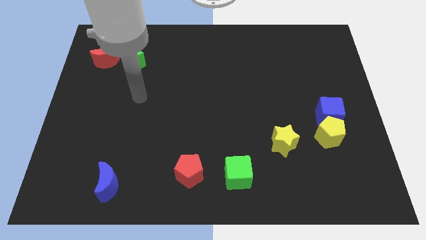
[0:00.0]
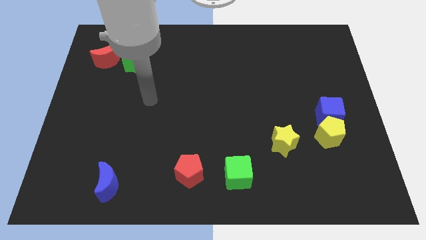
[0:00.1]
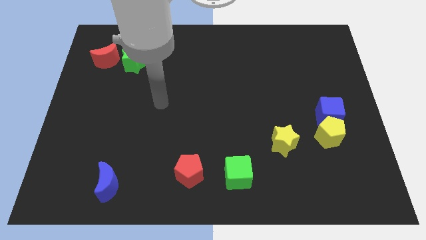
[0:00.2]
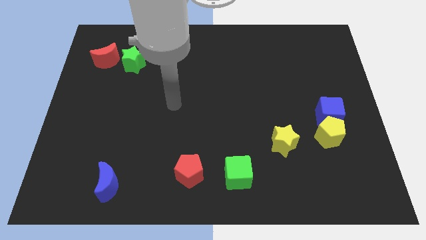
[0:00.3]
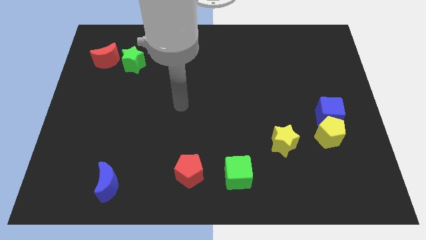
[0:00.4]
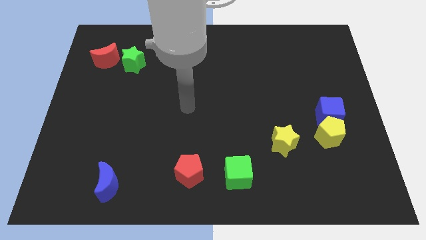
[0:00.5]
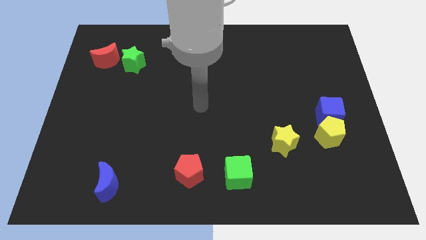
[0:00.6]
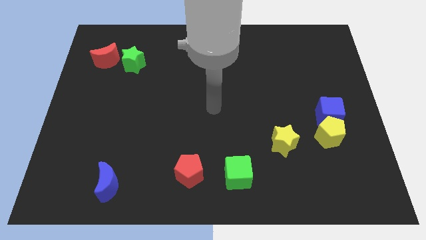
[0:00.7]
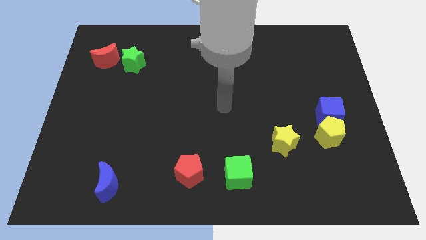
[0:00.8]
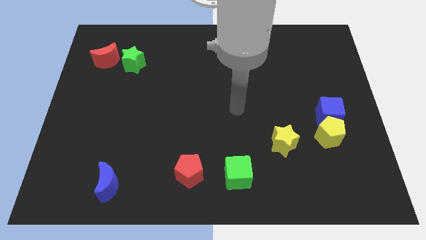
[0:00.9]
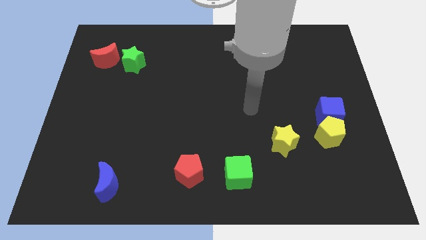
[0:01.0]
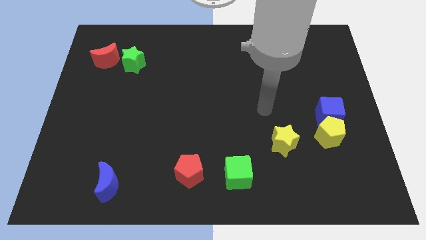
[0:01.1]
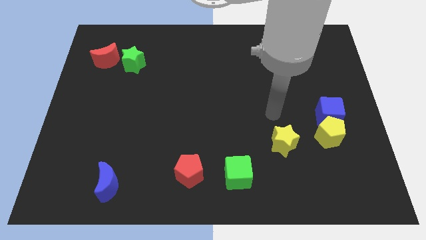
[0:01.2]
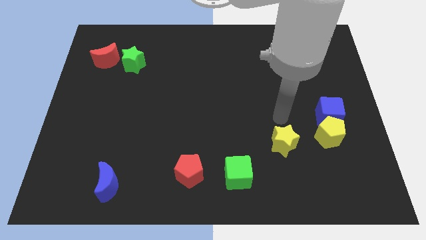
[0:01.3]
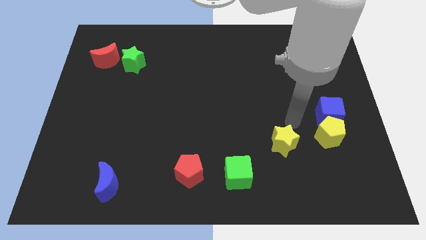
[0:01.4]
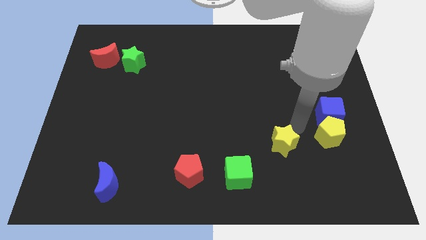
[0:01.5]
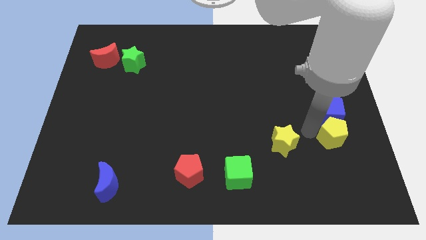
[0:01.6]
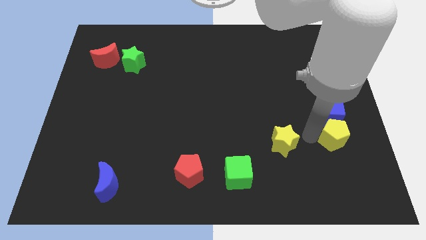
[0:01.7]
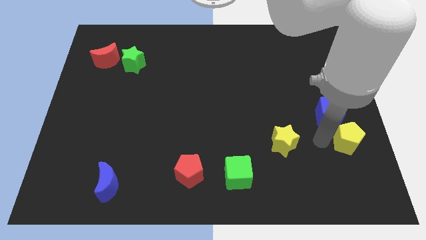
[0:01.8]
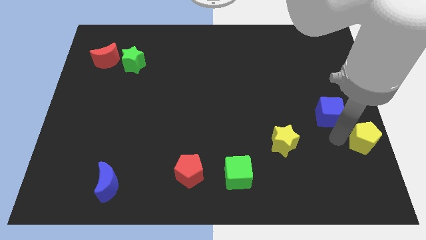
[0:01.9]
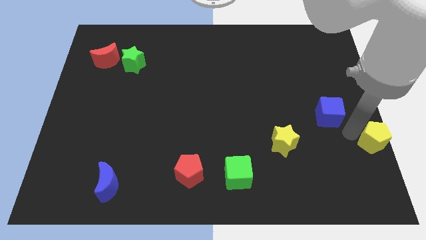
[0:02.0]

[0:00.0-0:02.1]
pull the blue cube apart from the yellow pentagon

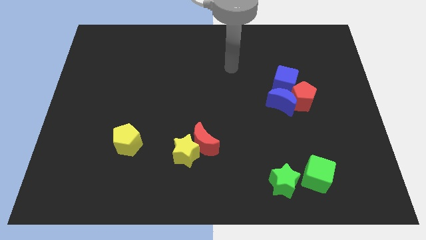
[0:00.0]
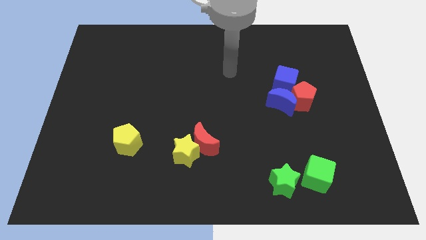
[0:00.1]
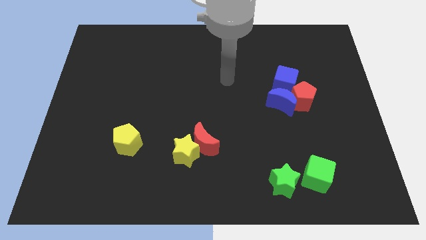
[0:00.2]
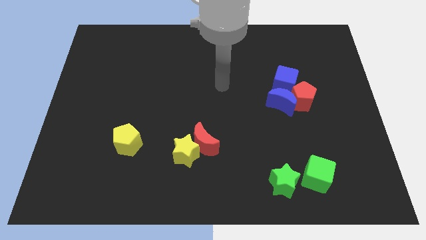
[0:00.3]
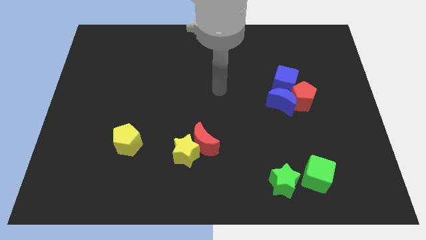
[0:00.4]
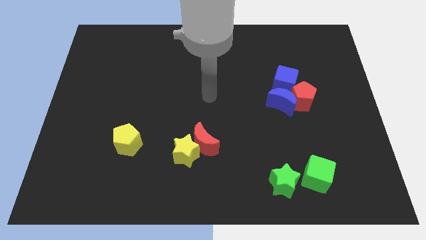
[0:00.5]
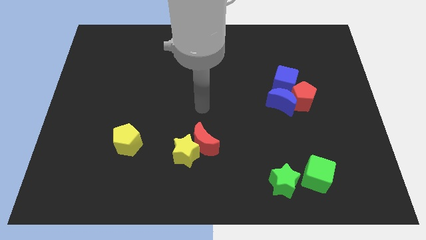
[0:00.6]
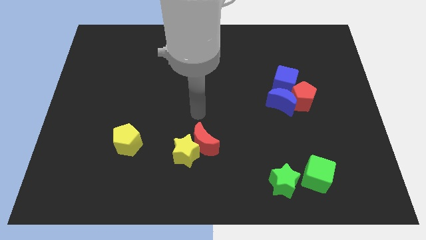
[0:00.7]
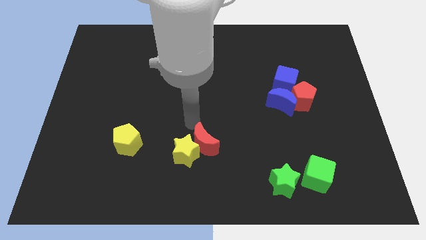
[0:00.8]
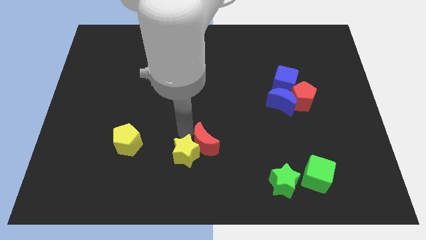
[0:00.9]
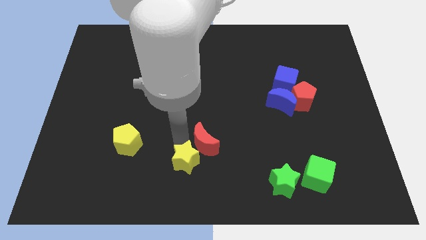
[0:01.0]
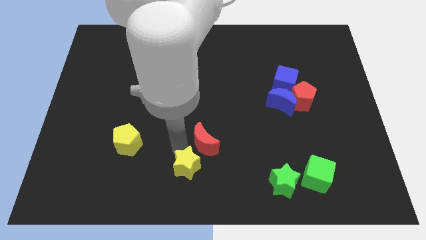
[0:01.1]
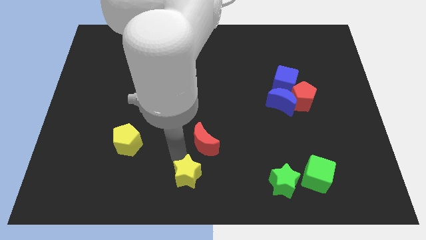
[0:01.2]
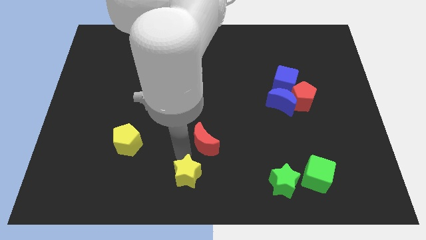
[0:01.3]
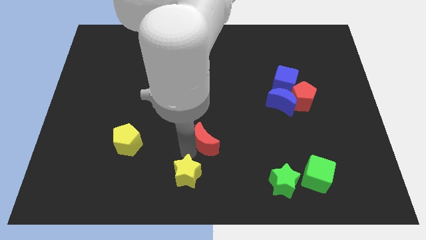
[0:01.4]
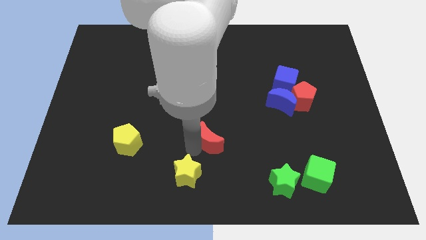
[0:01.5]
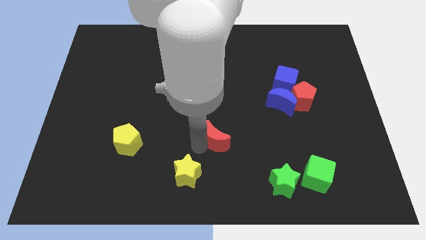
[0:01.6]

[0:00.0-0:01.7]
move the red moon away from the yellow star

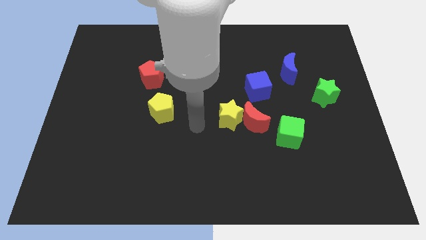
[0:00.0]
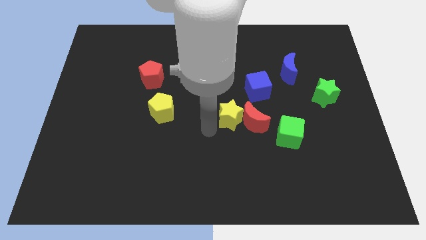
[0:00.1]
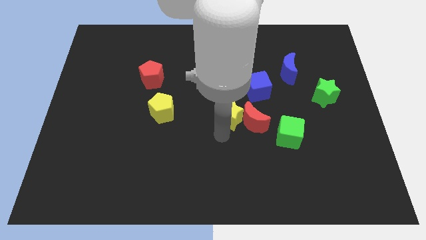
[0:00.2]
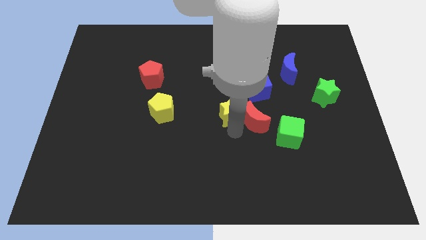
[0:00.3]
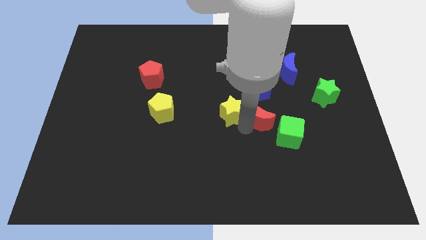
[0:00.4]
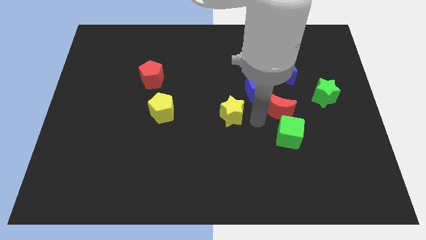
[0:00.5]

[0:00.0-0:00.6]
pull the yellow star apart from the red moon

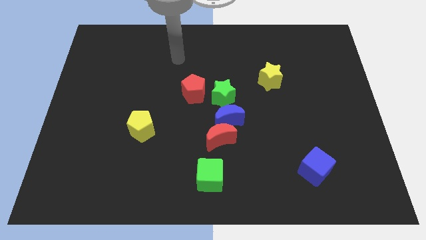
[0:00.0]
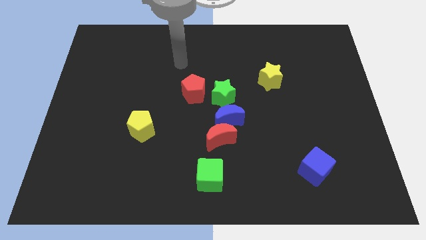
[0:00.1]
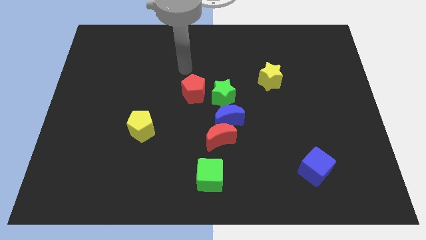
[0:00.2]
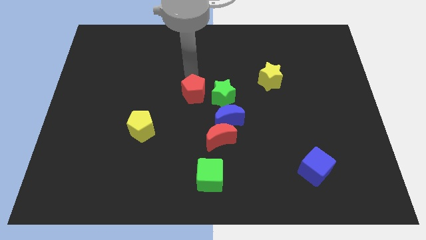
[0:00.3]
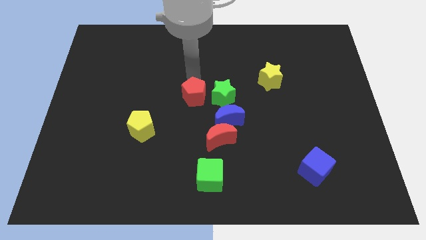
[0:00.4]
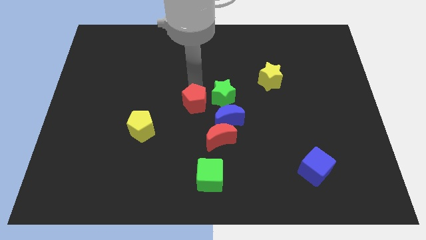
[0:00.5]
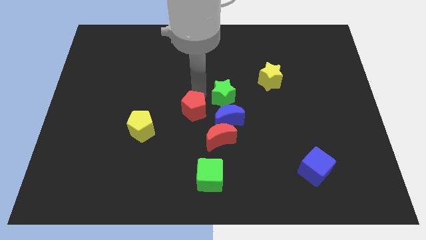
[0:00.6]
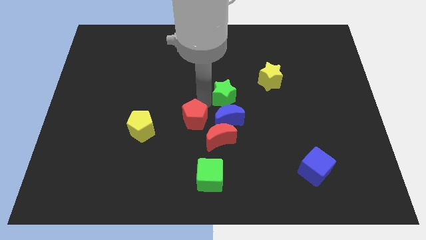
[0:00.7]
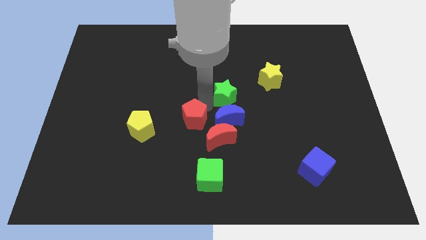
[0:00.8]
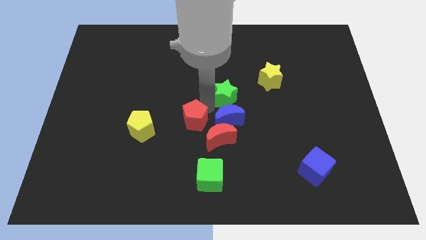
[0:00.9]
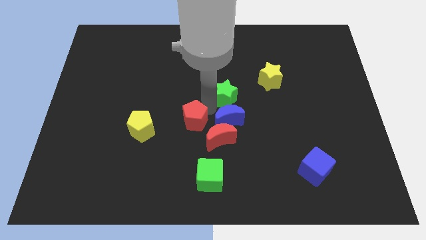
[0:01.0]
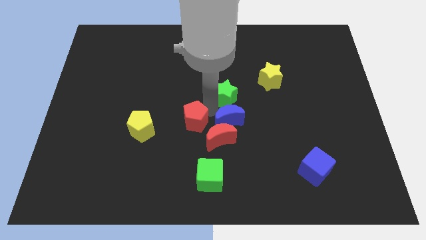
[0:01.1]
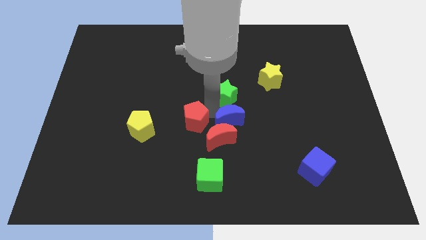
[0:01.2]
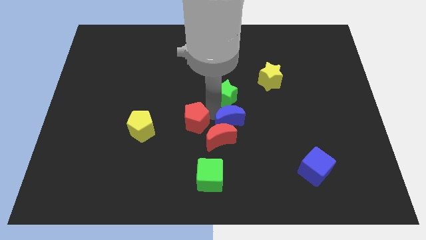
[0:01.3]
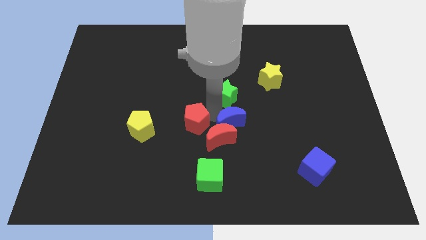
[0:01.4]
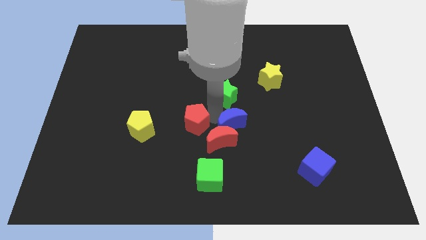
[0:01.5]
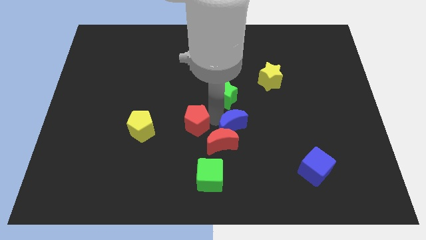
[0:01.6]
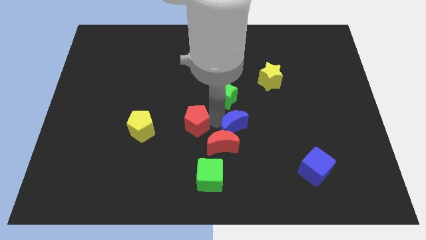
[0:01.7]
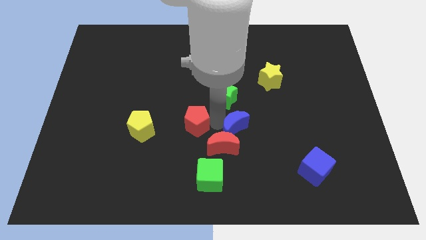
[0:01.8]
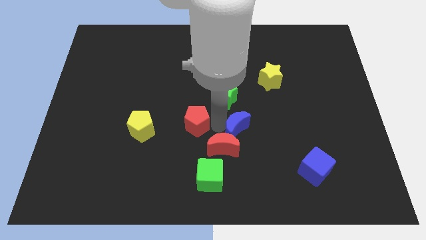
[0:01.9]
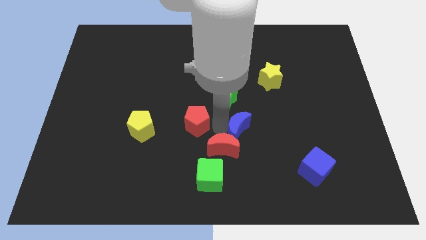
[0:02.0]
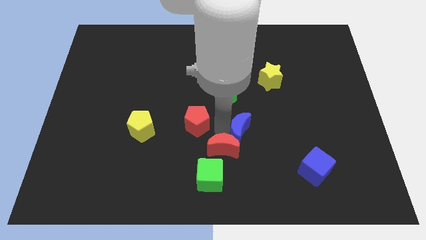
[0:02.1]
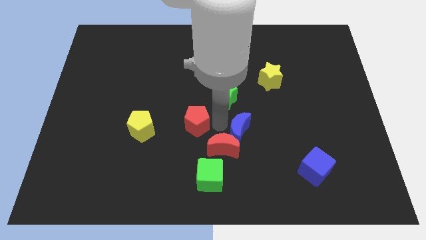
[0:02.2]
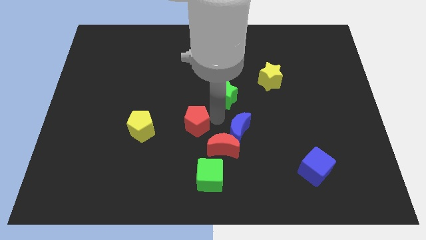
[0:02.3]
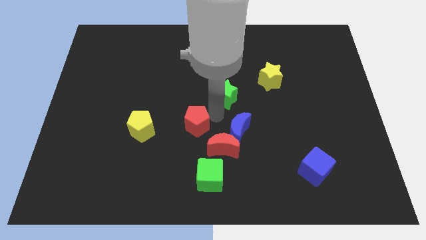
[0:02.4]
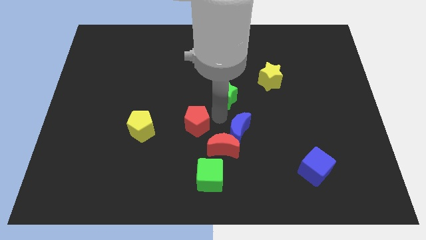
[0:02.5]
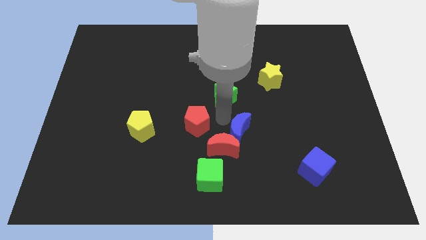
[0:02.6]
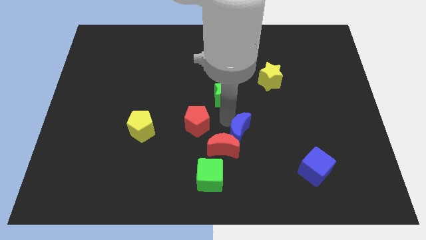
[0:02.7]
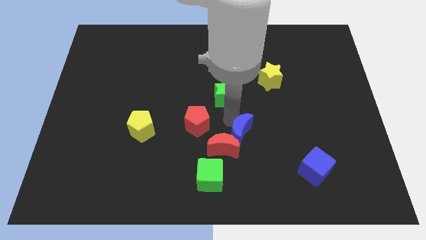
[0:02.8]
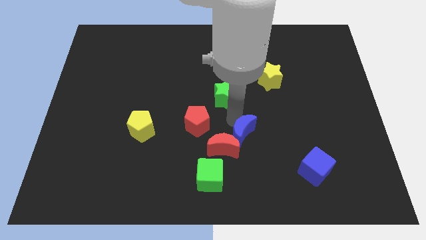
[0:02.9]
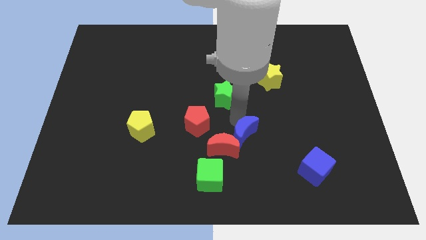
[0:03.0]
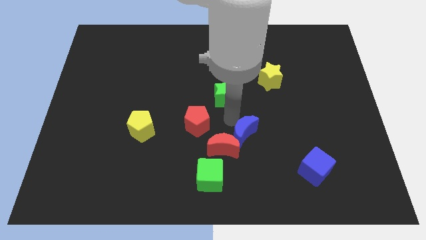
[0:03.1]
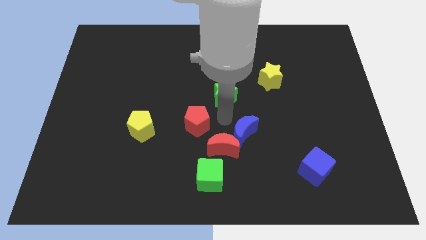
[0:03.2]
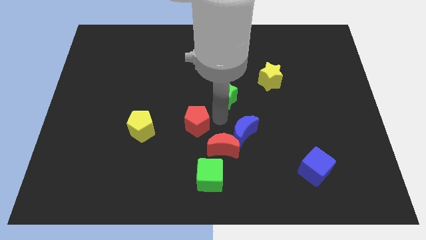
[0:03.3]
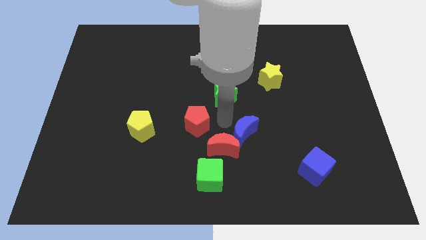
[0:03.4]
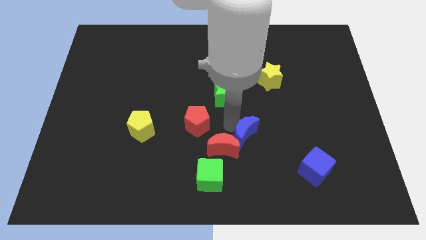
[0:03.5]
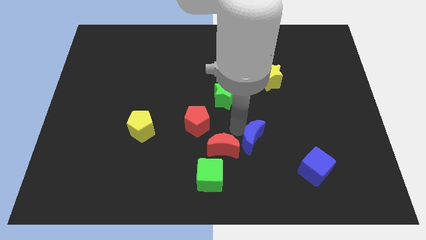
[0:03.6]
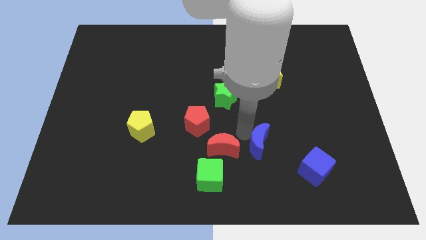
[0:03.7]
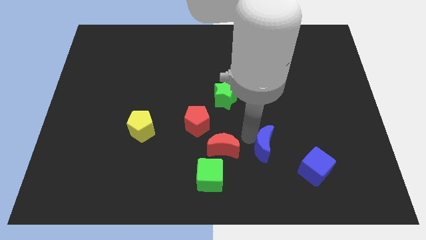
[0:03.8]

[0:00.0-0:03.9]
separate the blue moon from the red moon and green star

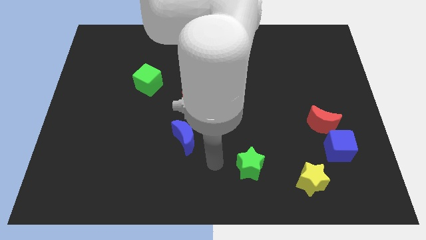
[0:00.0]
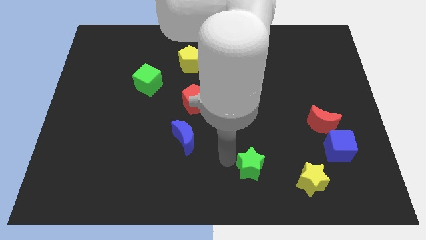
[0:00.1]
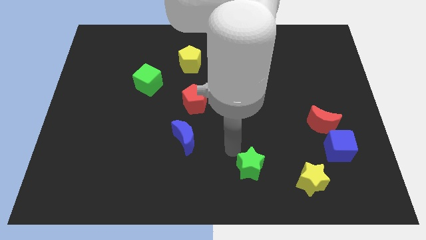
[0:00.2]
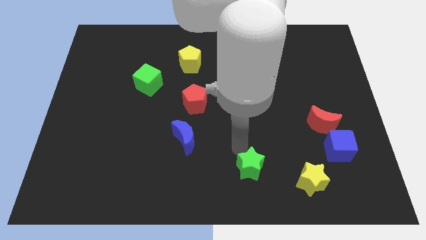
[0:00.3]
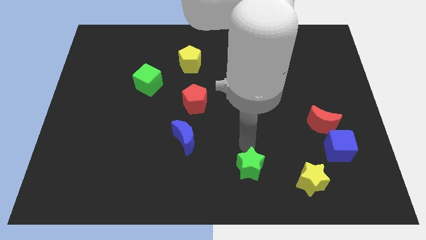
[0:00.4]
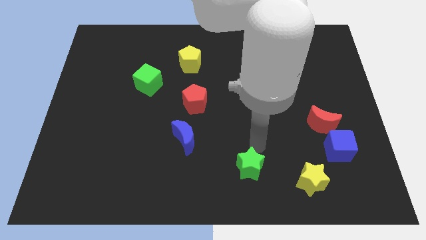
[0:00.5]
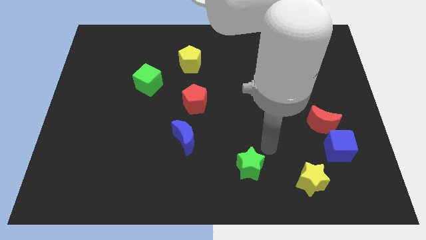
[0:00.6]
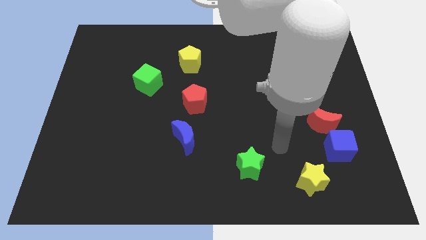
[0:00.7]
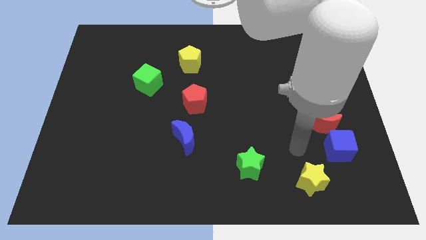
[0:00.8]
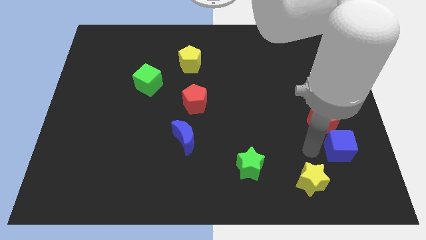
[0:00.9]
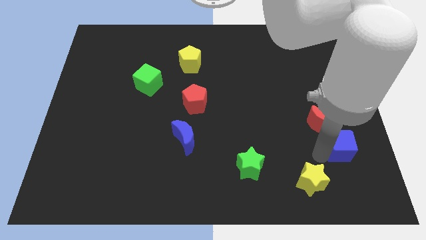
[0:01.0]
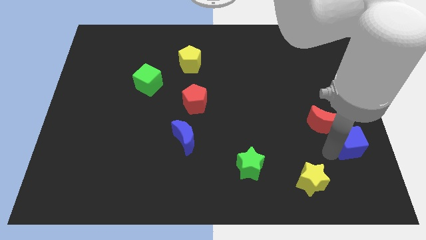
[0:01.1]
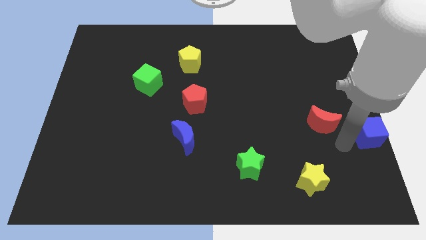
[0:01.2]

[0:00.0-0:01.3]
move the red moon away from the blue cube
